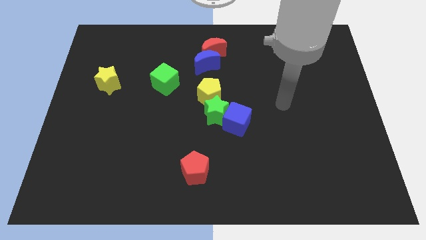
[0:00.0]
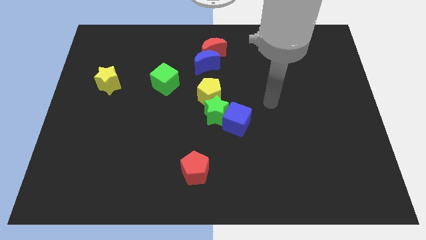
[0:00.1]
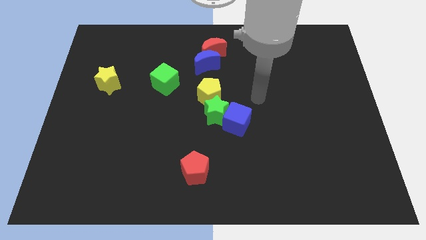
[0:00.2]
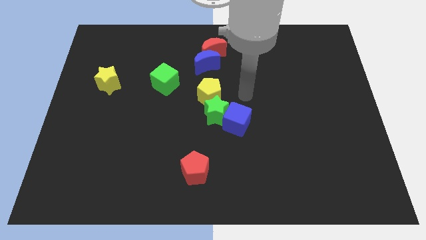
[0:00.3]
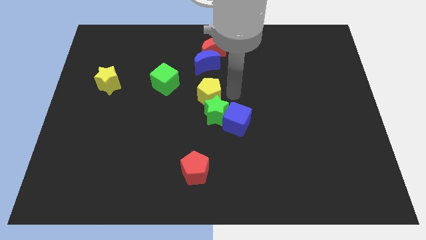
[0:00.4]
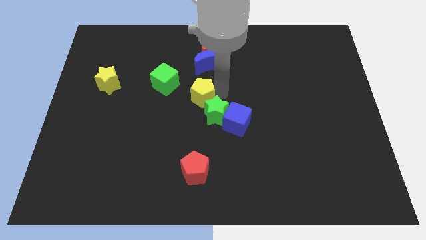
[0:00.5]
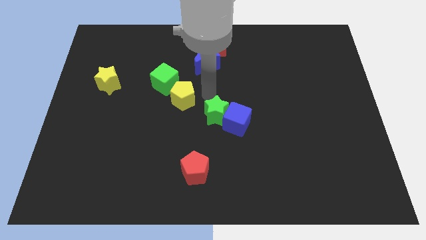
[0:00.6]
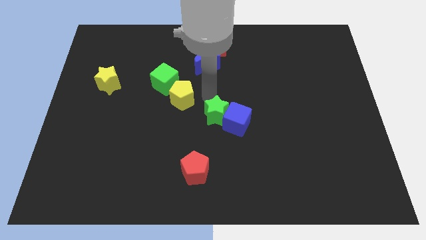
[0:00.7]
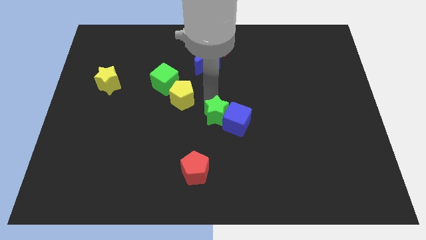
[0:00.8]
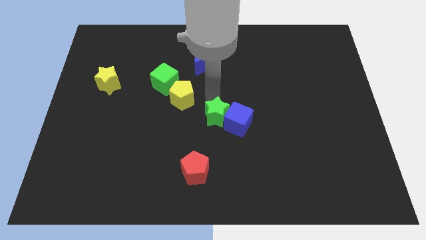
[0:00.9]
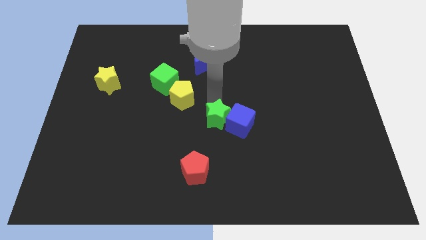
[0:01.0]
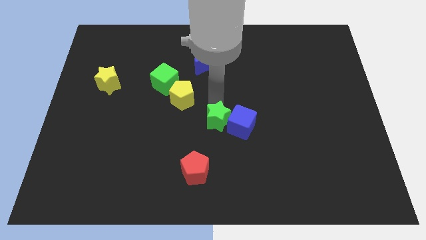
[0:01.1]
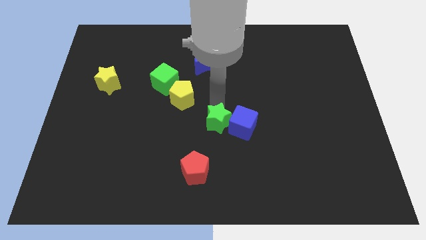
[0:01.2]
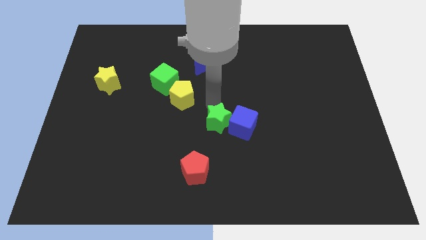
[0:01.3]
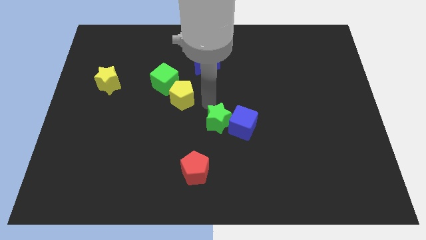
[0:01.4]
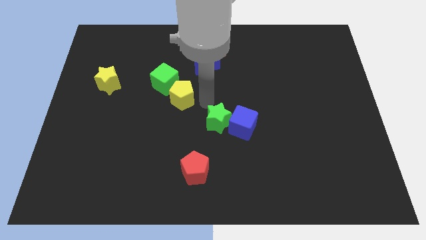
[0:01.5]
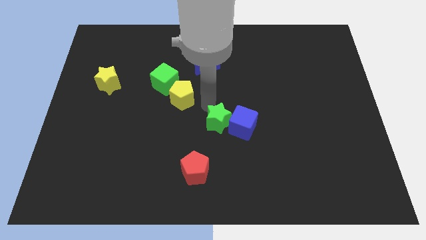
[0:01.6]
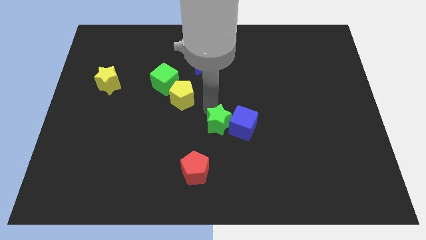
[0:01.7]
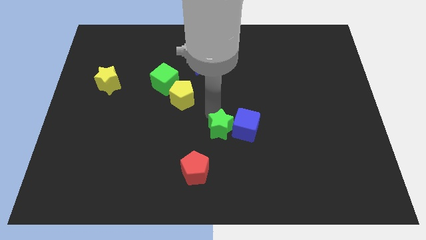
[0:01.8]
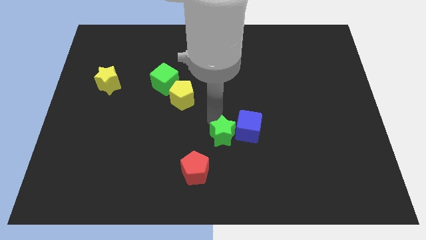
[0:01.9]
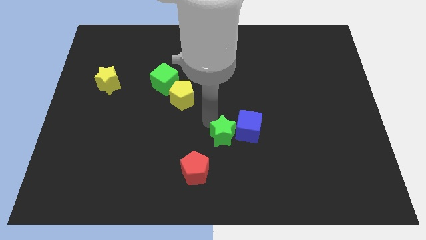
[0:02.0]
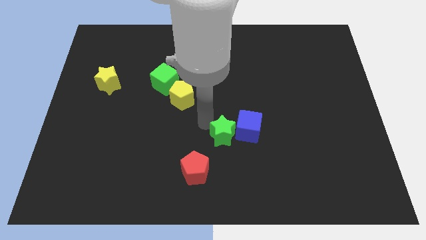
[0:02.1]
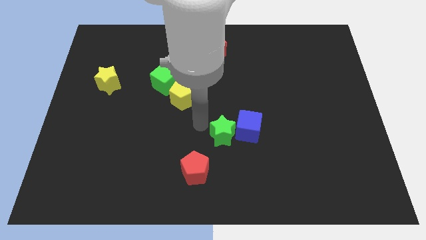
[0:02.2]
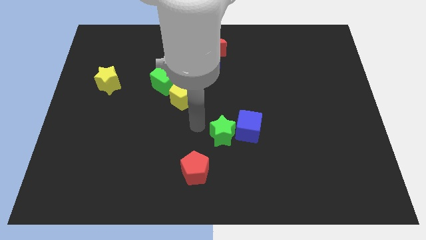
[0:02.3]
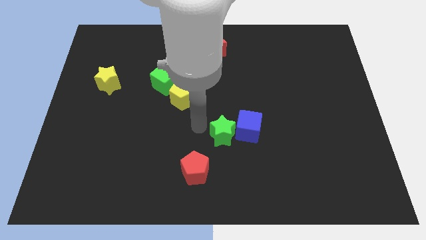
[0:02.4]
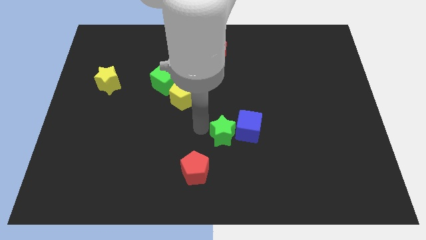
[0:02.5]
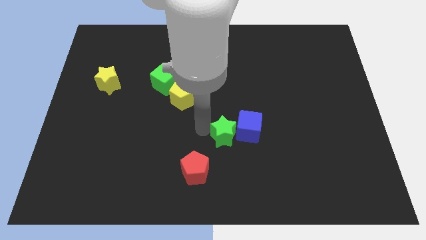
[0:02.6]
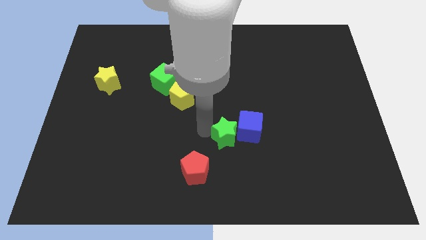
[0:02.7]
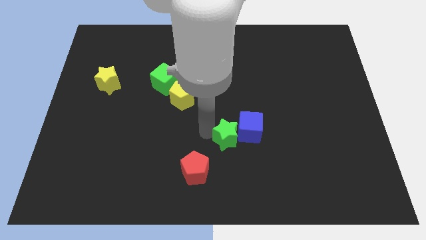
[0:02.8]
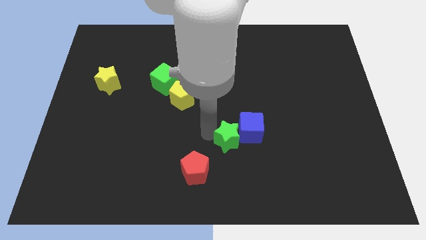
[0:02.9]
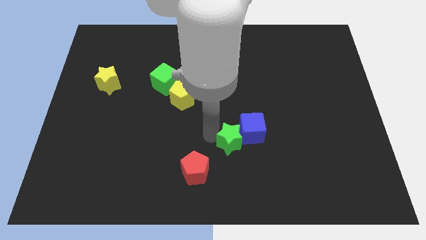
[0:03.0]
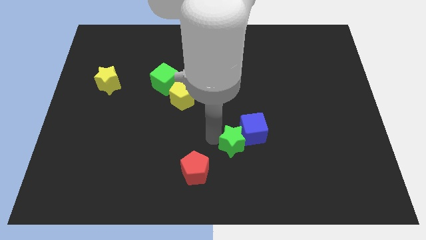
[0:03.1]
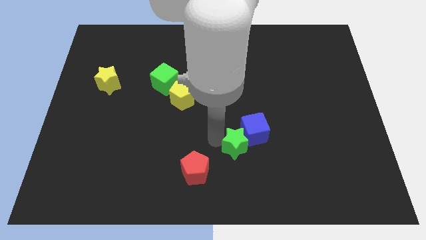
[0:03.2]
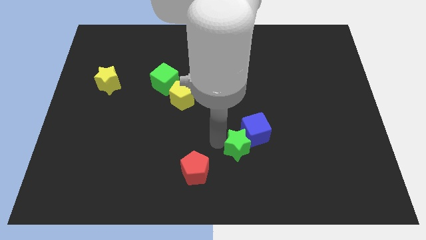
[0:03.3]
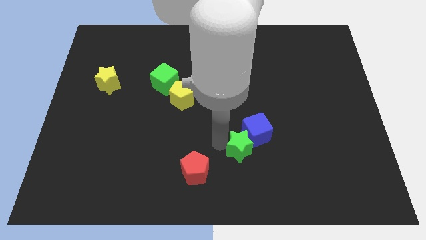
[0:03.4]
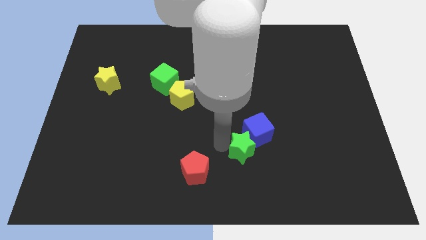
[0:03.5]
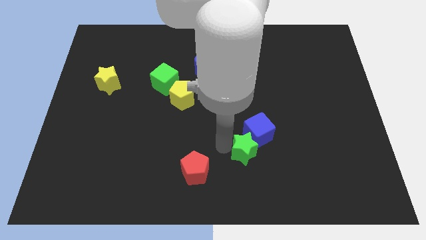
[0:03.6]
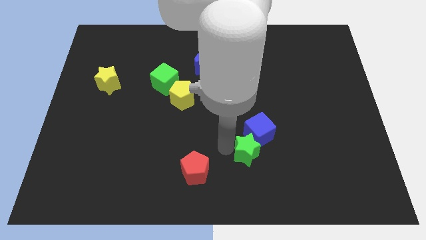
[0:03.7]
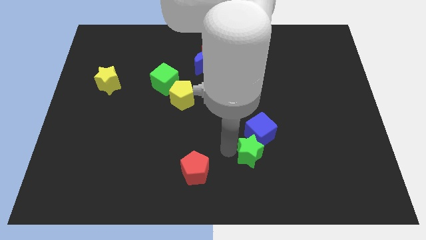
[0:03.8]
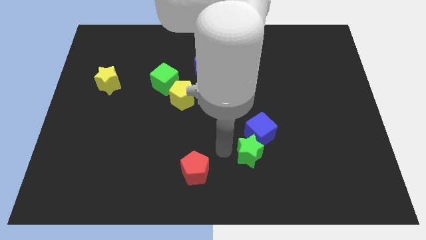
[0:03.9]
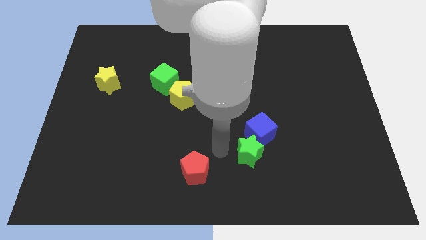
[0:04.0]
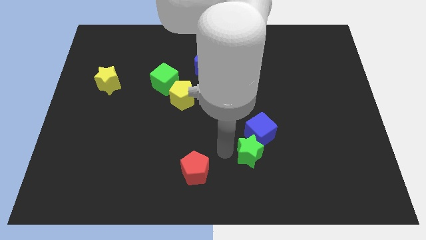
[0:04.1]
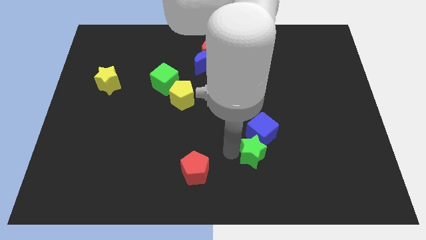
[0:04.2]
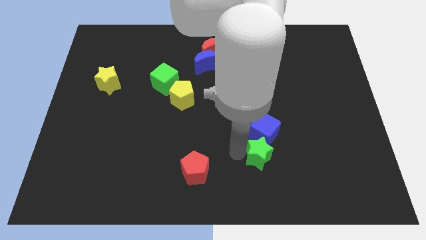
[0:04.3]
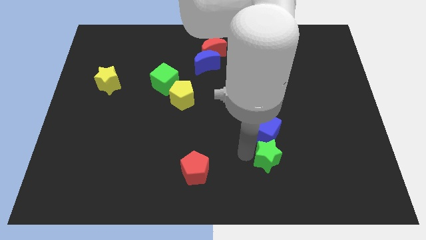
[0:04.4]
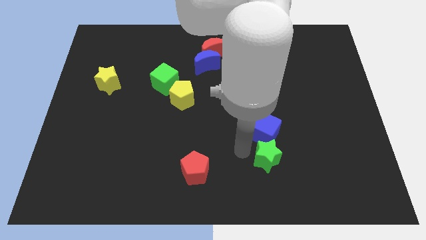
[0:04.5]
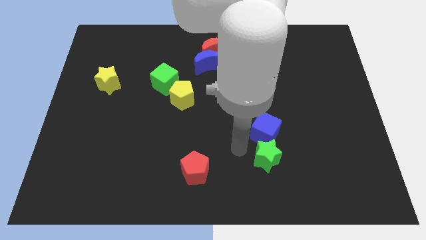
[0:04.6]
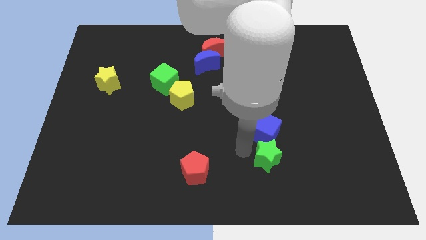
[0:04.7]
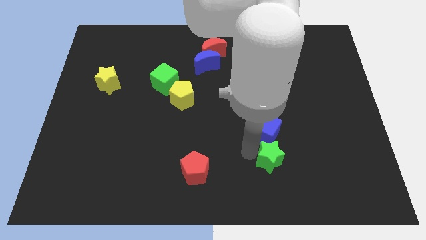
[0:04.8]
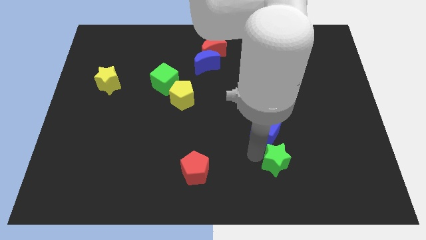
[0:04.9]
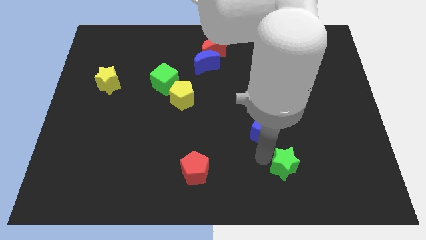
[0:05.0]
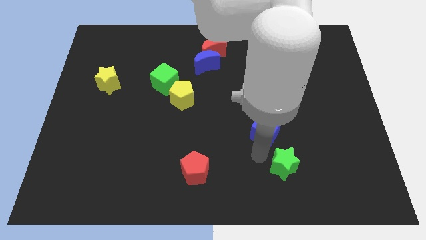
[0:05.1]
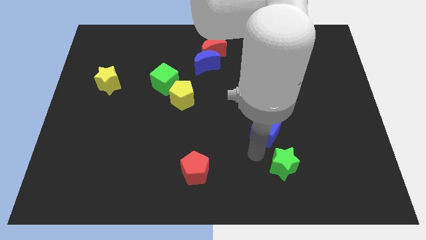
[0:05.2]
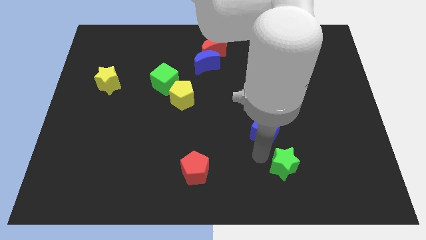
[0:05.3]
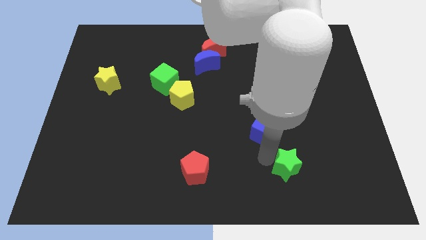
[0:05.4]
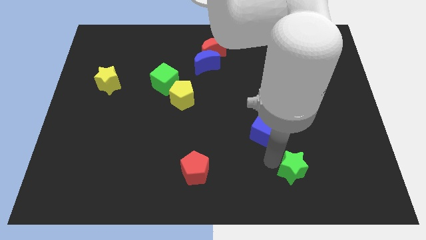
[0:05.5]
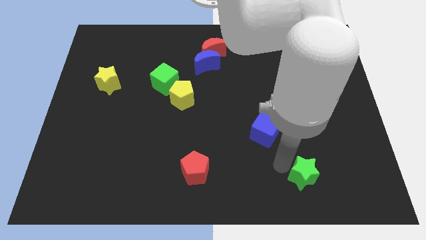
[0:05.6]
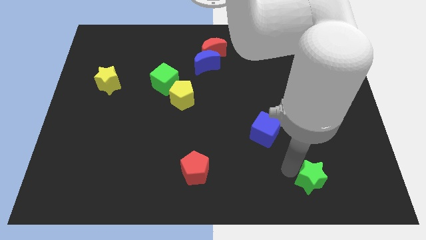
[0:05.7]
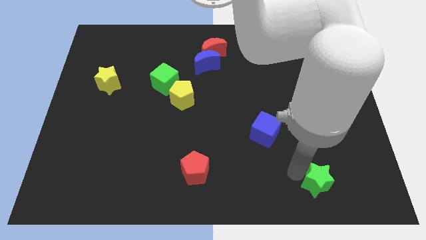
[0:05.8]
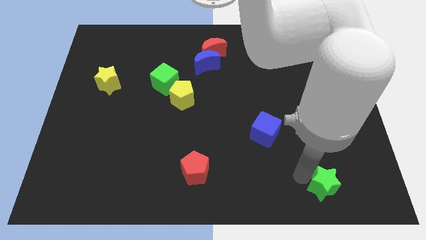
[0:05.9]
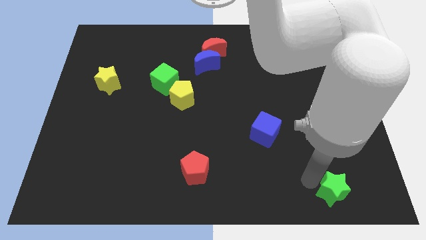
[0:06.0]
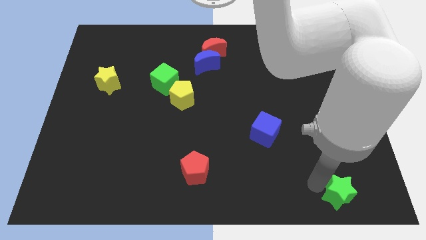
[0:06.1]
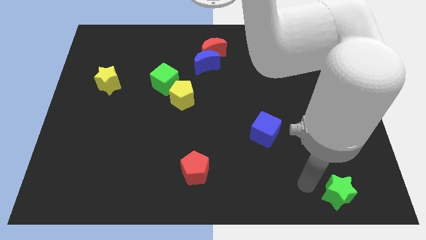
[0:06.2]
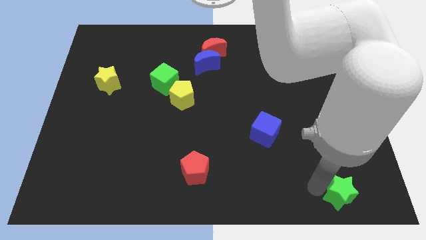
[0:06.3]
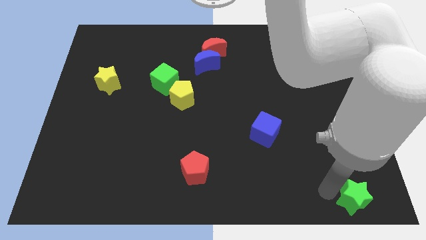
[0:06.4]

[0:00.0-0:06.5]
put the green star to the bottom right

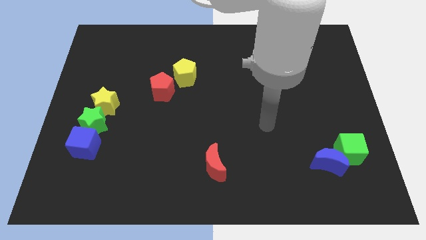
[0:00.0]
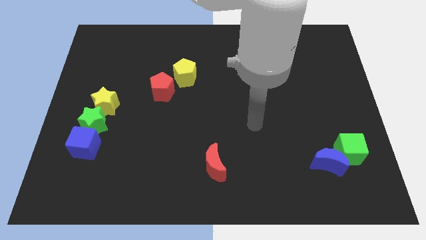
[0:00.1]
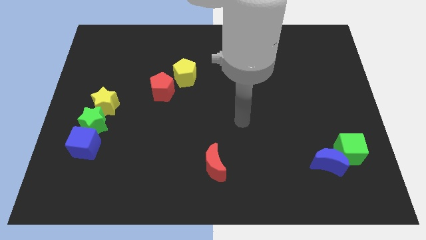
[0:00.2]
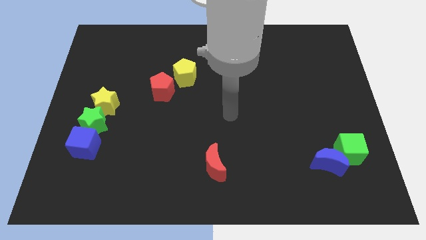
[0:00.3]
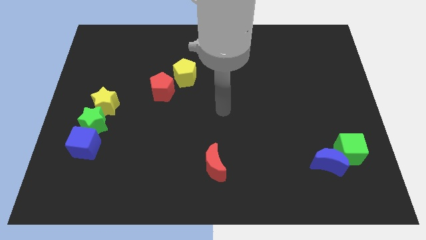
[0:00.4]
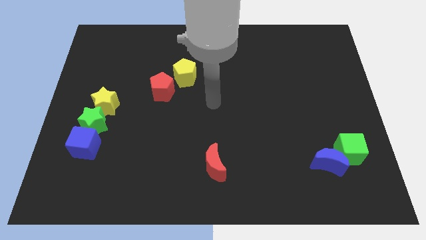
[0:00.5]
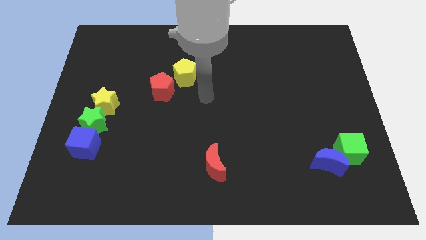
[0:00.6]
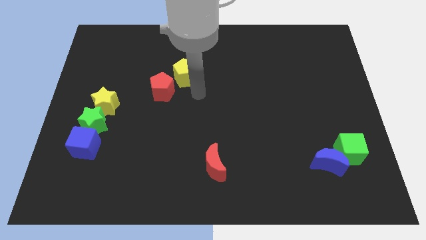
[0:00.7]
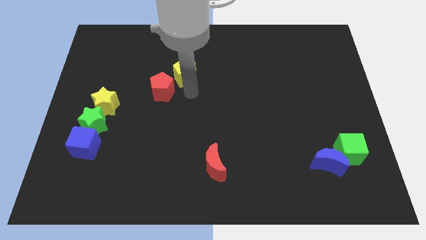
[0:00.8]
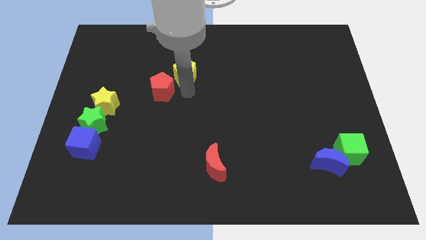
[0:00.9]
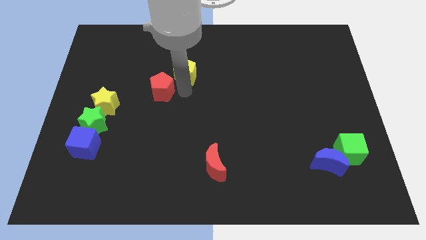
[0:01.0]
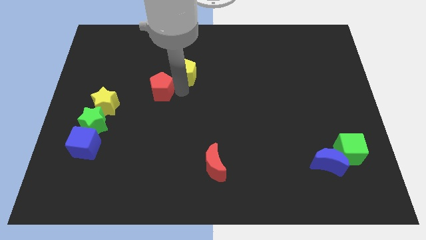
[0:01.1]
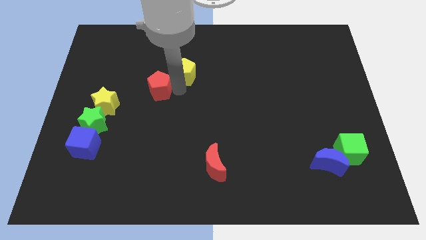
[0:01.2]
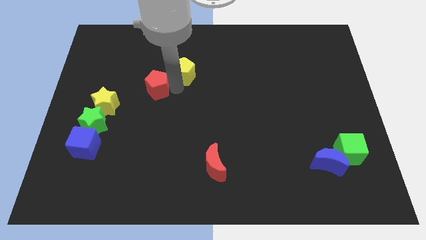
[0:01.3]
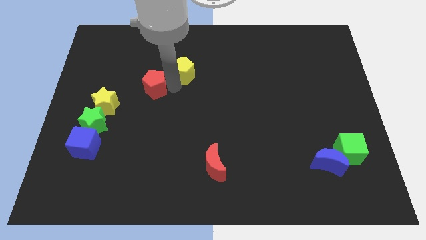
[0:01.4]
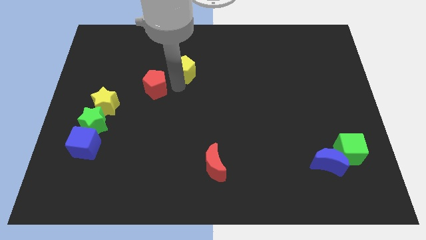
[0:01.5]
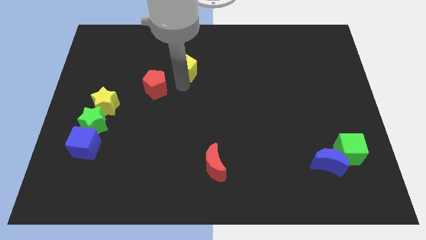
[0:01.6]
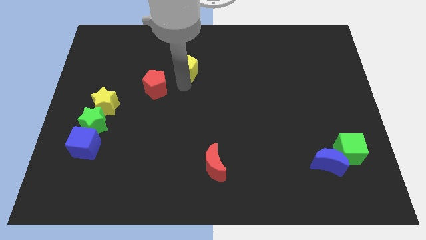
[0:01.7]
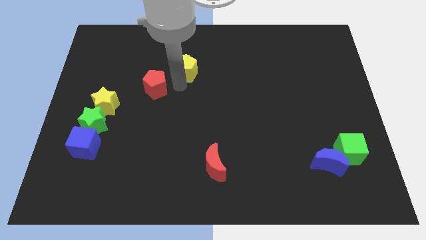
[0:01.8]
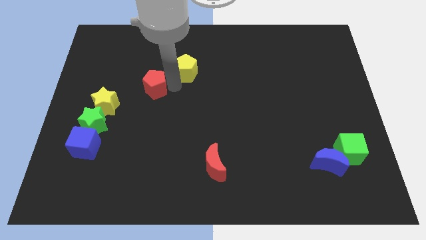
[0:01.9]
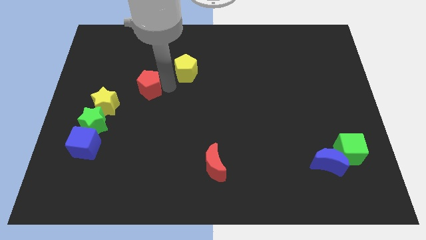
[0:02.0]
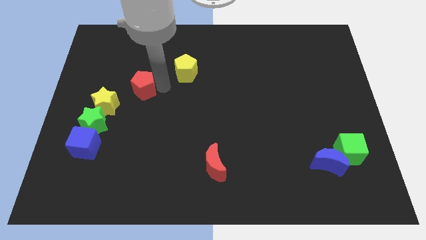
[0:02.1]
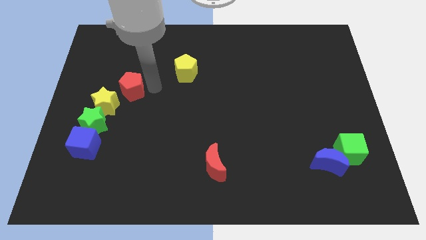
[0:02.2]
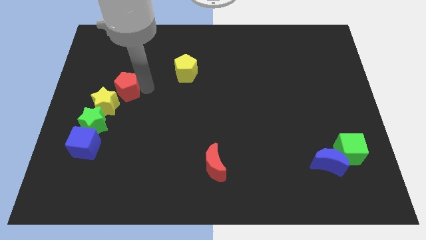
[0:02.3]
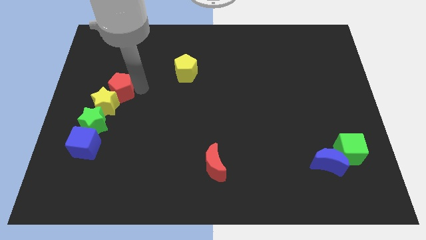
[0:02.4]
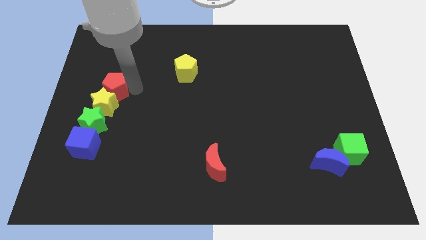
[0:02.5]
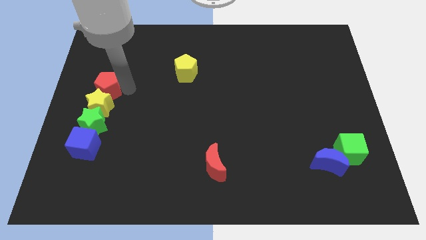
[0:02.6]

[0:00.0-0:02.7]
slide the red pentagon to the left side
